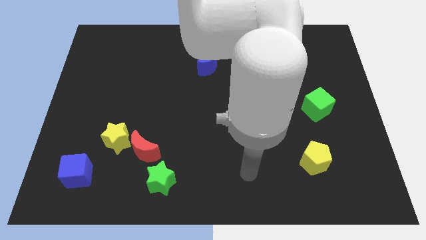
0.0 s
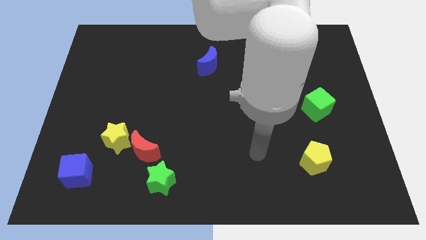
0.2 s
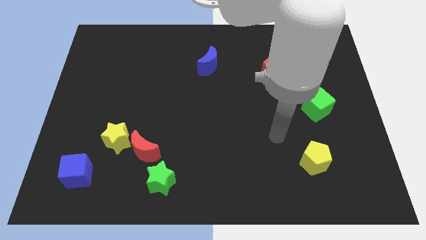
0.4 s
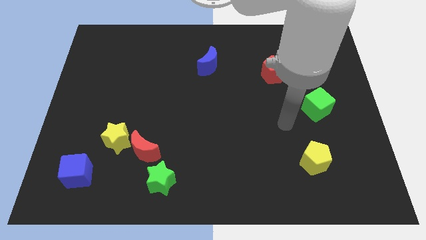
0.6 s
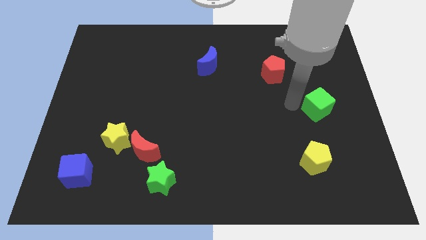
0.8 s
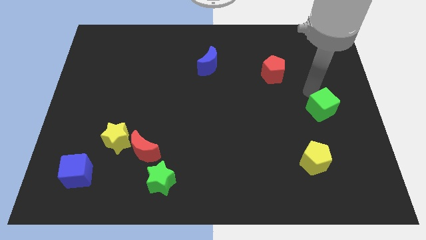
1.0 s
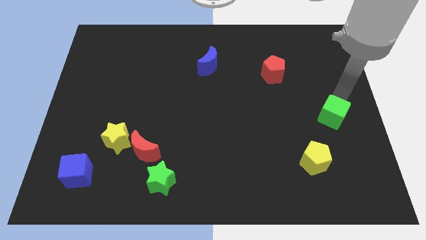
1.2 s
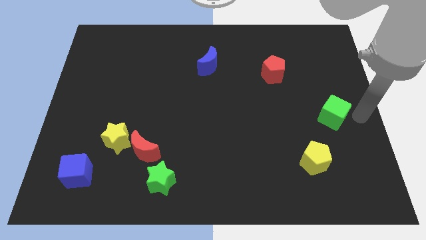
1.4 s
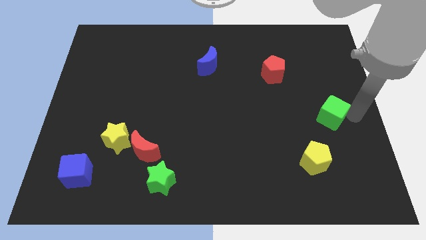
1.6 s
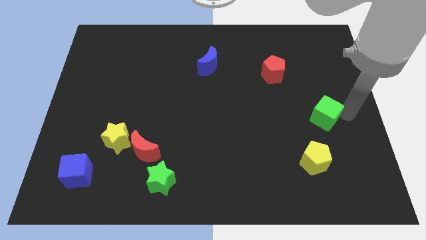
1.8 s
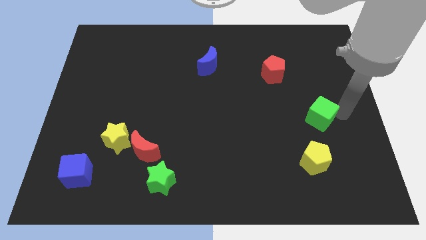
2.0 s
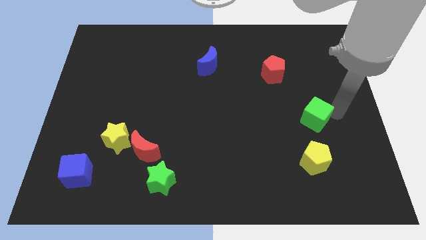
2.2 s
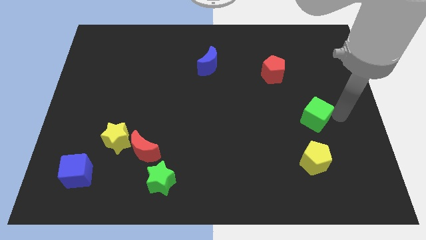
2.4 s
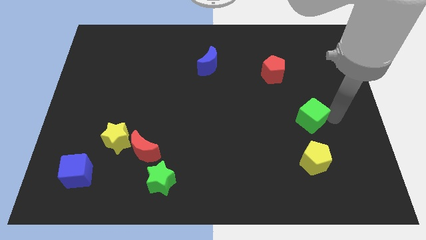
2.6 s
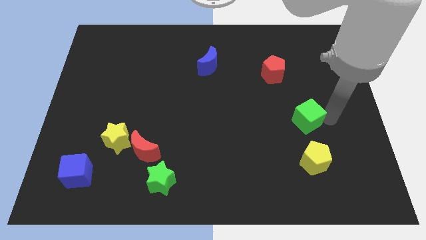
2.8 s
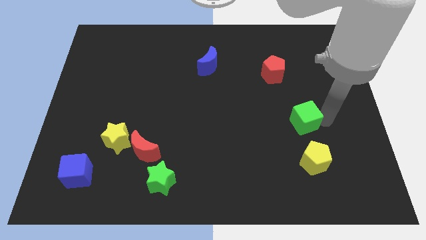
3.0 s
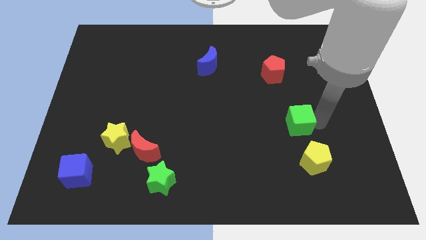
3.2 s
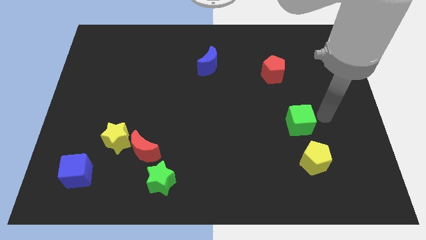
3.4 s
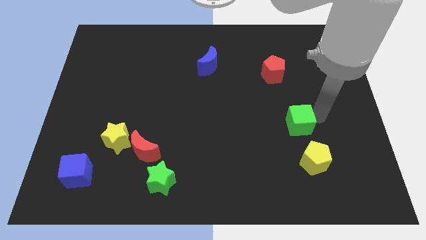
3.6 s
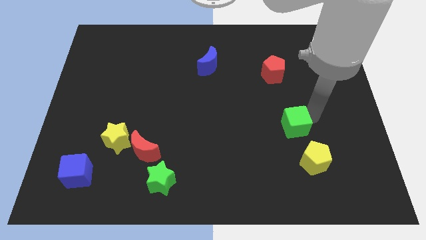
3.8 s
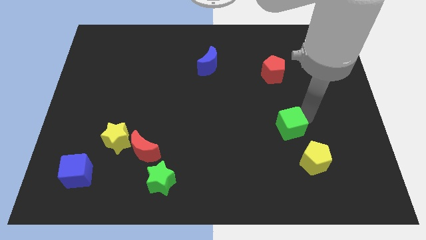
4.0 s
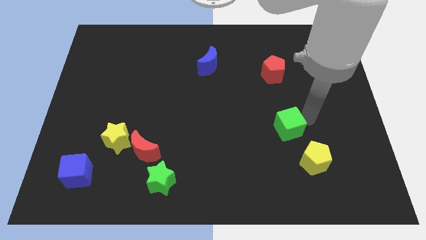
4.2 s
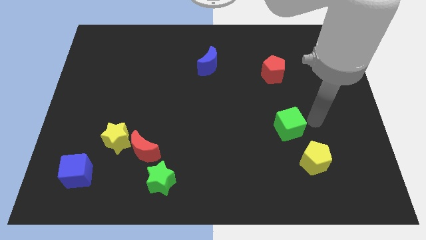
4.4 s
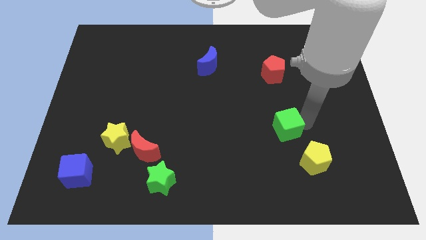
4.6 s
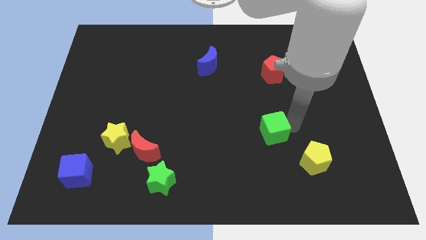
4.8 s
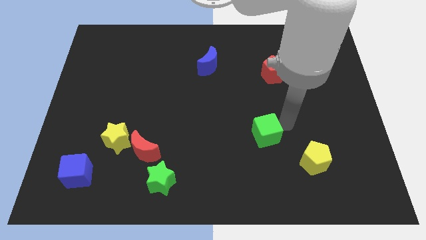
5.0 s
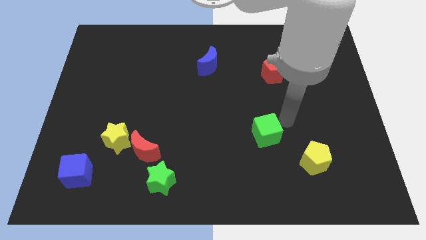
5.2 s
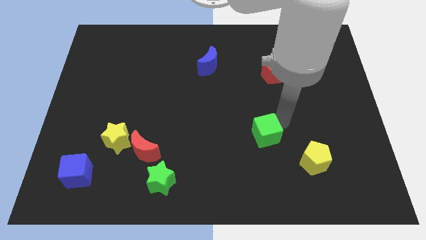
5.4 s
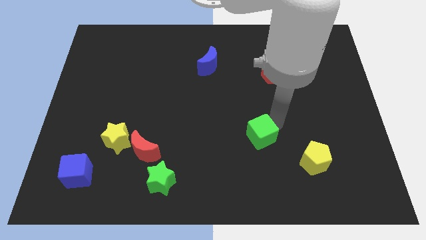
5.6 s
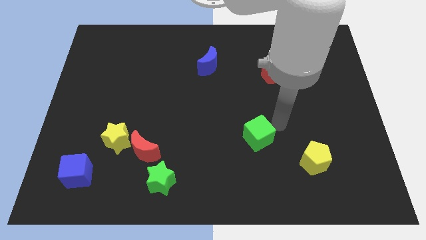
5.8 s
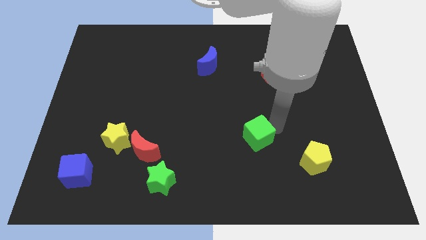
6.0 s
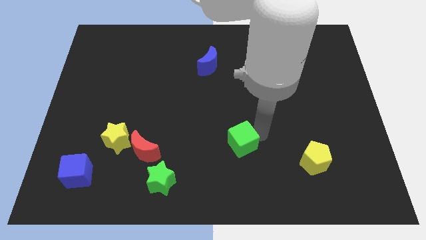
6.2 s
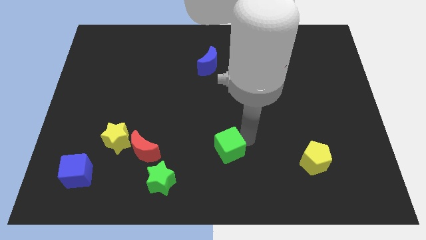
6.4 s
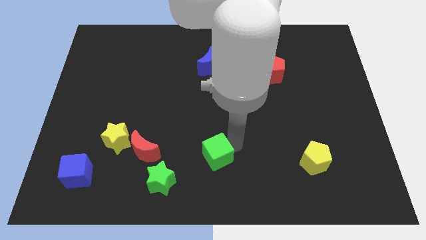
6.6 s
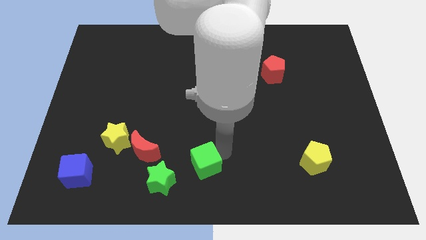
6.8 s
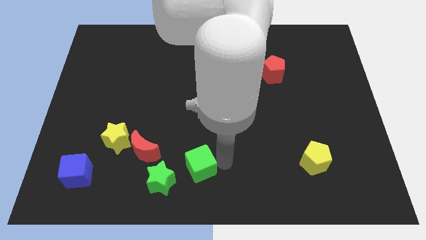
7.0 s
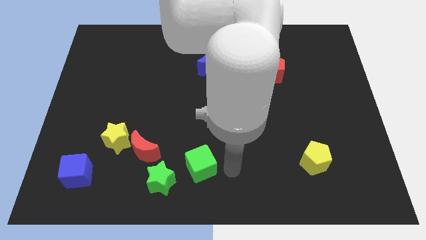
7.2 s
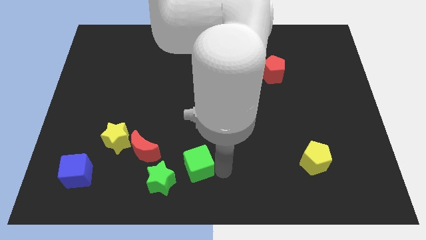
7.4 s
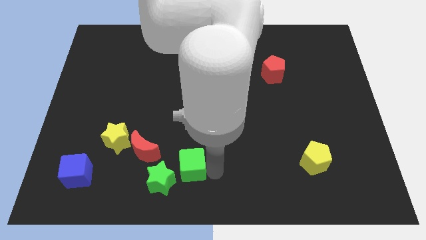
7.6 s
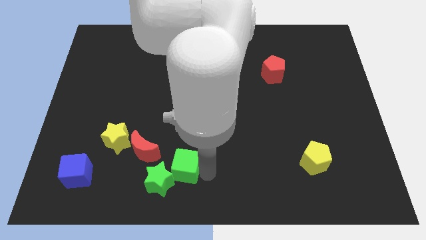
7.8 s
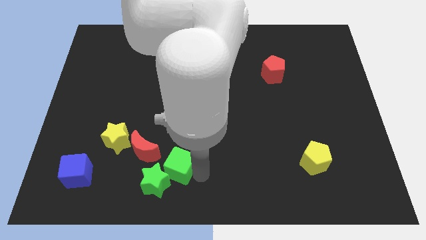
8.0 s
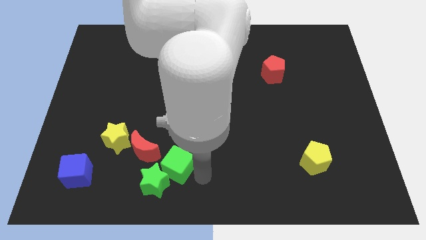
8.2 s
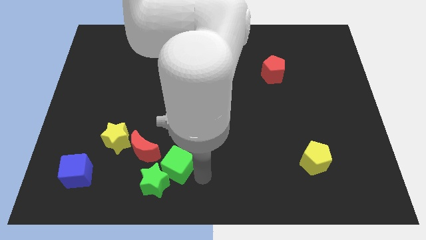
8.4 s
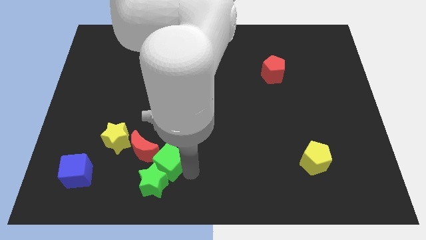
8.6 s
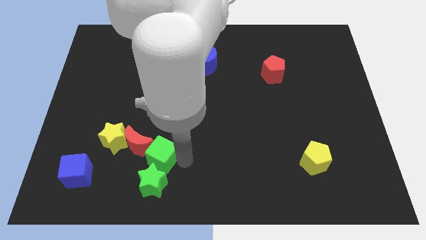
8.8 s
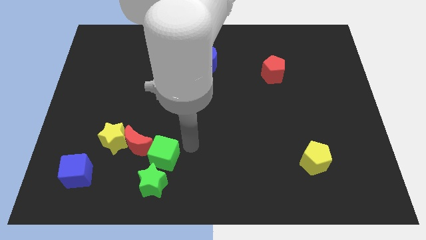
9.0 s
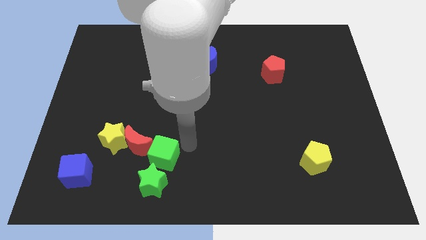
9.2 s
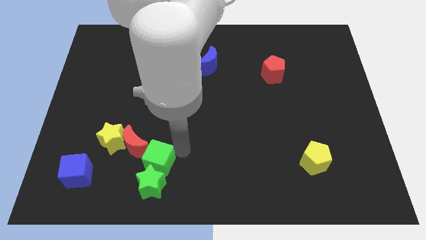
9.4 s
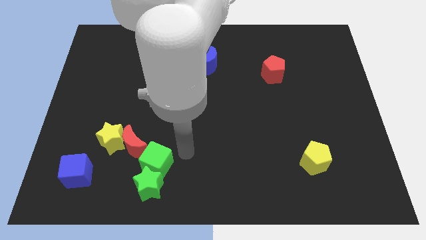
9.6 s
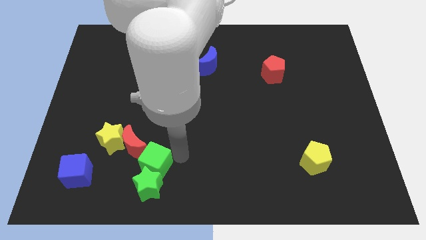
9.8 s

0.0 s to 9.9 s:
push the green cube right of the blue cube

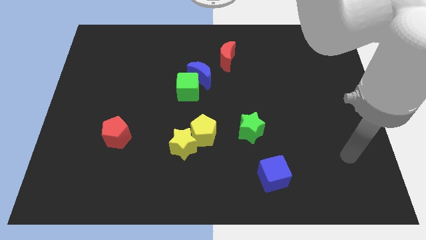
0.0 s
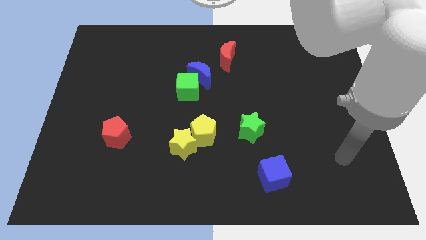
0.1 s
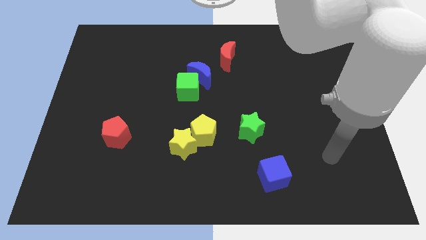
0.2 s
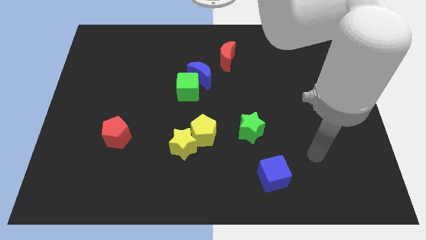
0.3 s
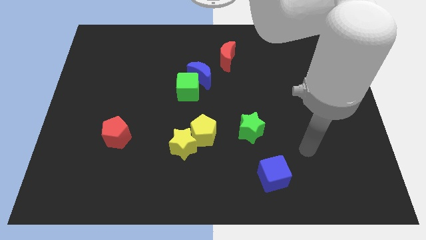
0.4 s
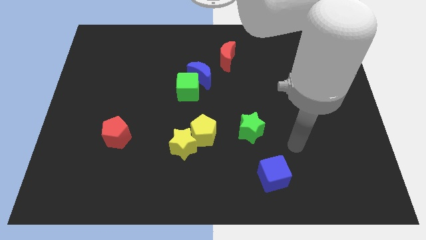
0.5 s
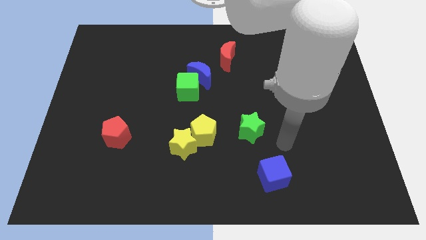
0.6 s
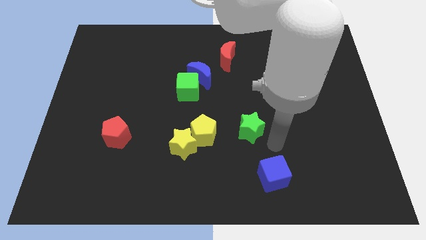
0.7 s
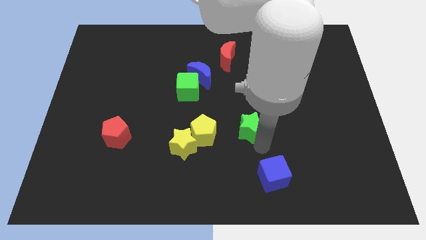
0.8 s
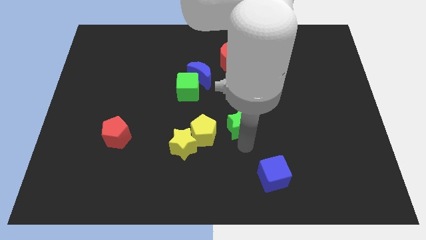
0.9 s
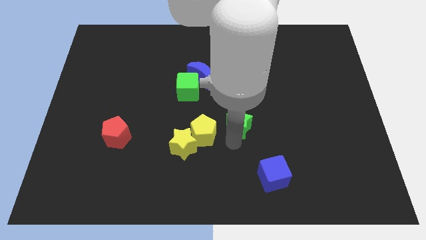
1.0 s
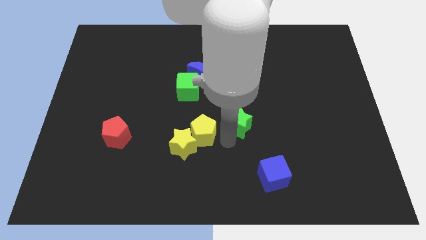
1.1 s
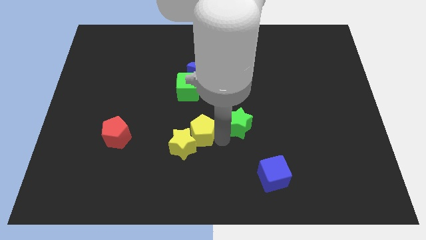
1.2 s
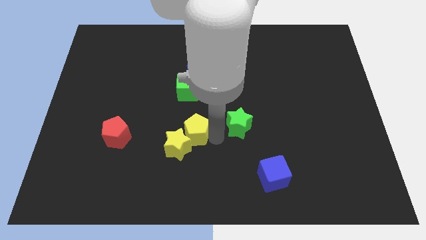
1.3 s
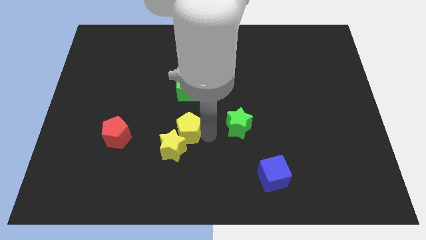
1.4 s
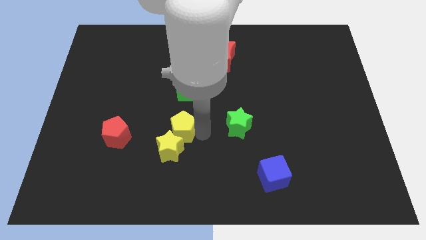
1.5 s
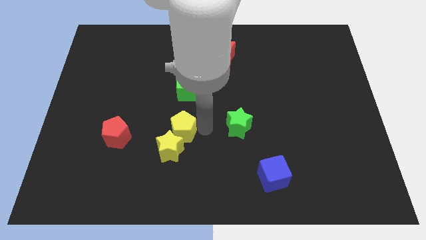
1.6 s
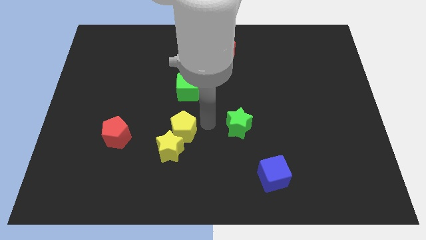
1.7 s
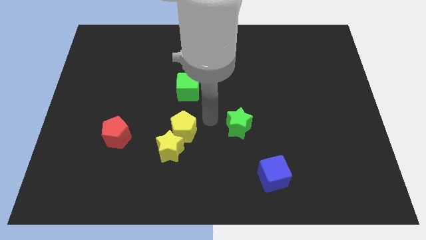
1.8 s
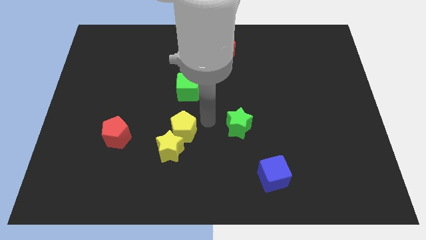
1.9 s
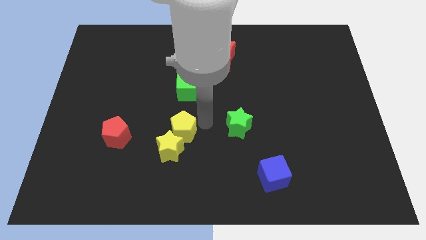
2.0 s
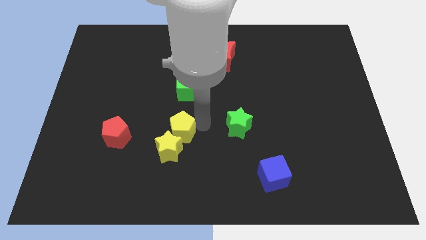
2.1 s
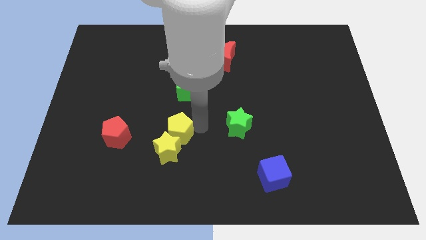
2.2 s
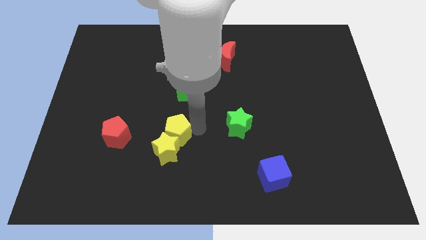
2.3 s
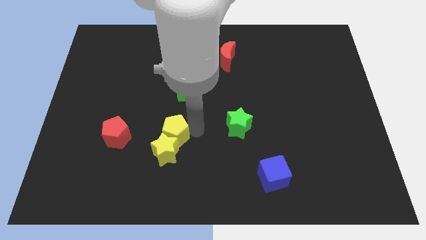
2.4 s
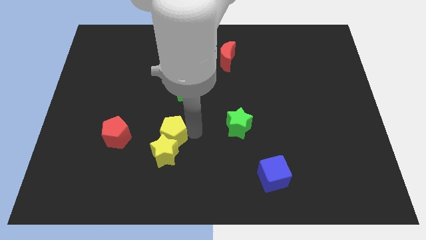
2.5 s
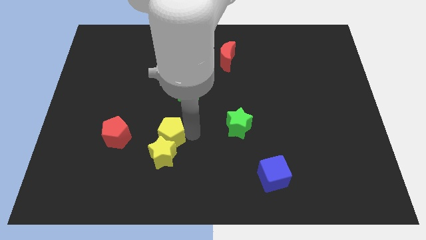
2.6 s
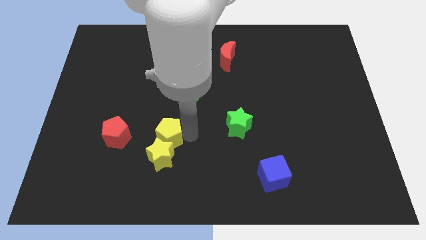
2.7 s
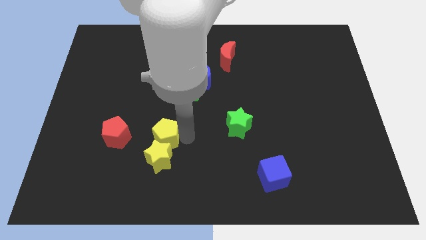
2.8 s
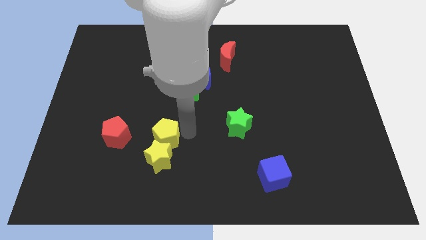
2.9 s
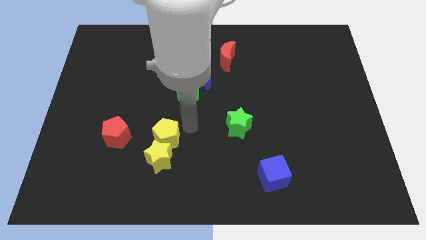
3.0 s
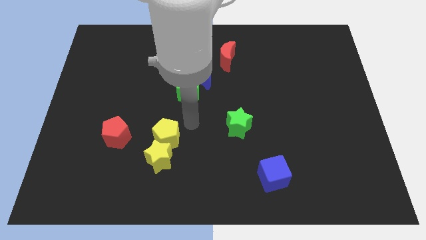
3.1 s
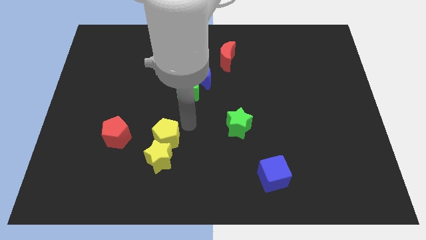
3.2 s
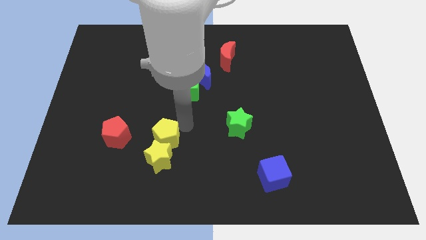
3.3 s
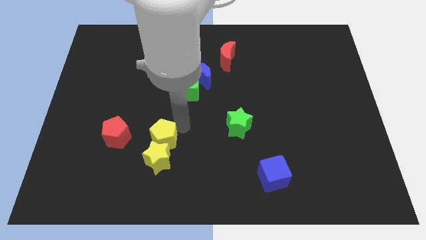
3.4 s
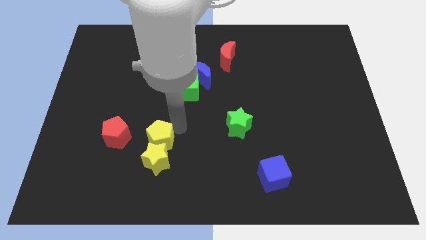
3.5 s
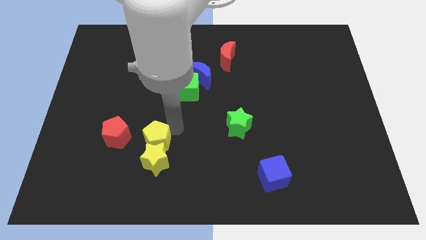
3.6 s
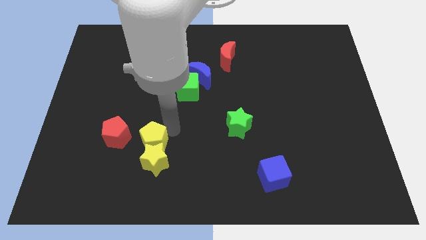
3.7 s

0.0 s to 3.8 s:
push the yellow pentagon to the bottom right side of the red pentagon
